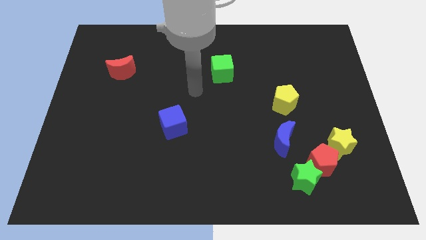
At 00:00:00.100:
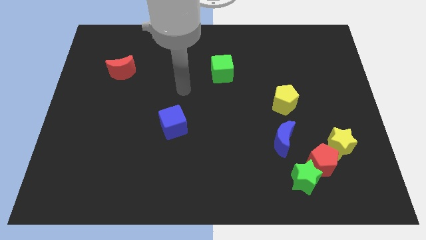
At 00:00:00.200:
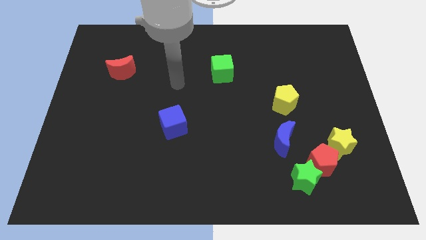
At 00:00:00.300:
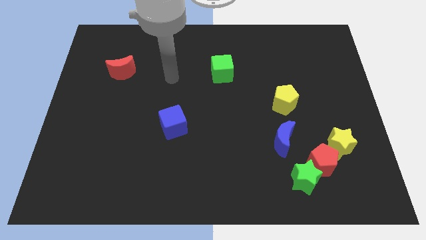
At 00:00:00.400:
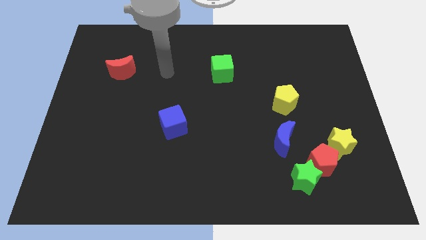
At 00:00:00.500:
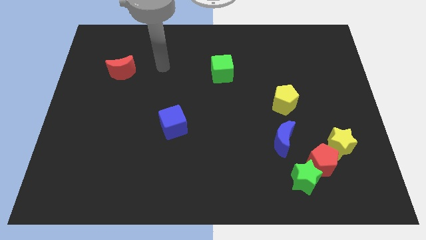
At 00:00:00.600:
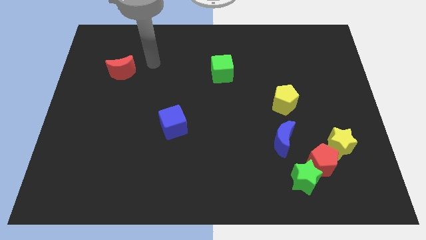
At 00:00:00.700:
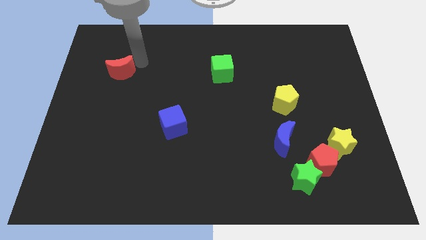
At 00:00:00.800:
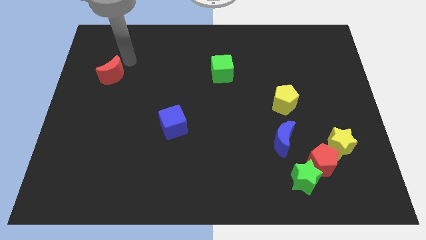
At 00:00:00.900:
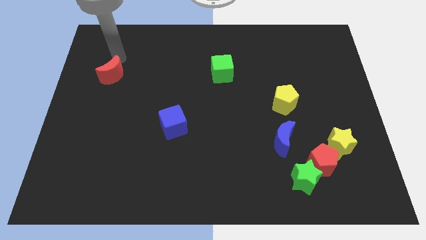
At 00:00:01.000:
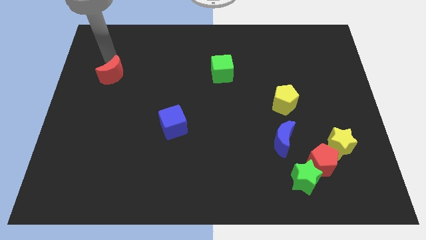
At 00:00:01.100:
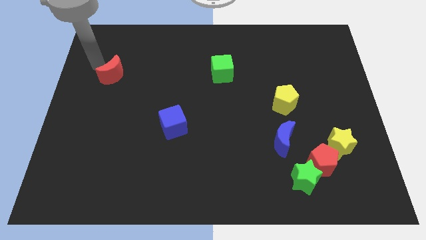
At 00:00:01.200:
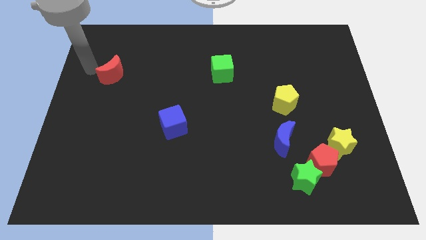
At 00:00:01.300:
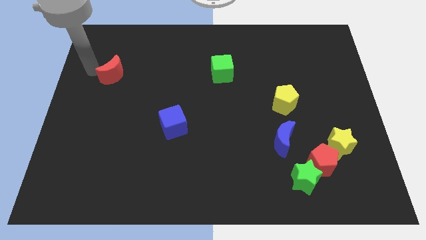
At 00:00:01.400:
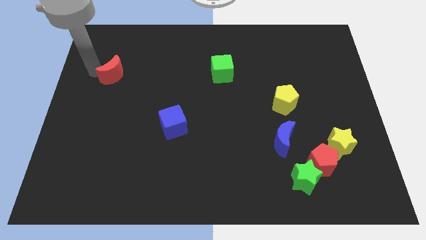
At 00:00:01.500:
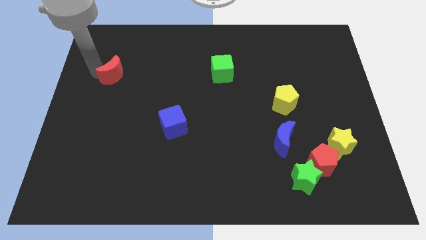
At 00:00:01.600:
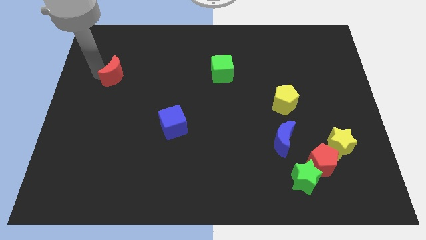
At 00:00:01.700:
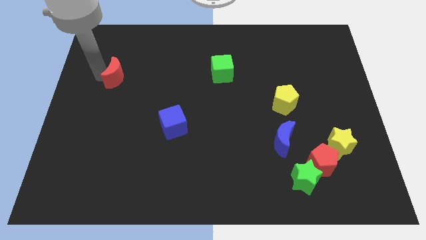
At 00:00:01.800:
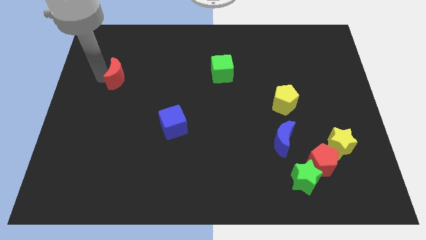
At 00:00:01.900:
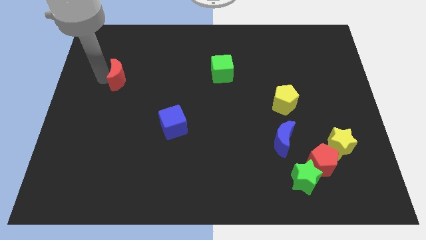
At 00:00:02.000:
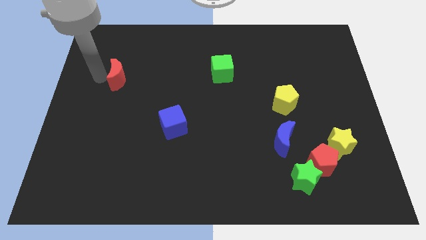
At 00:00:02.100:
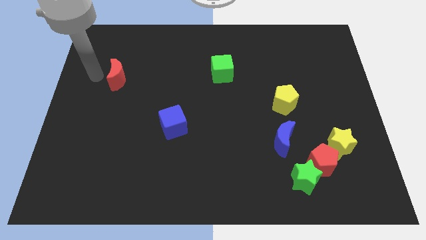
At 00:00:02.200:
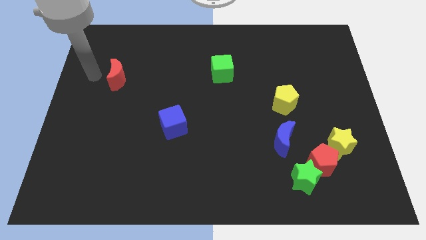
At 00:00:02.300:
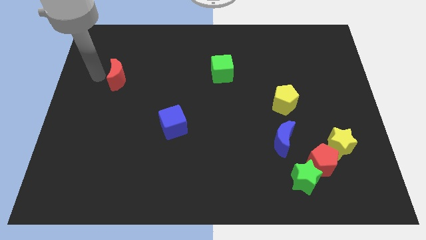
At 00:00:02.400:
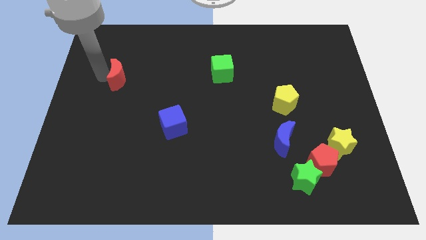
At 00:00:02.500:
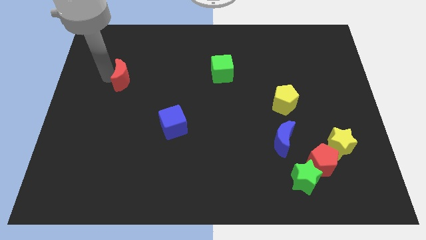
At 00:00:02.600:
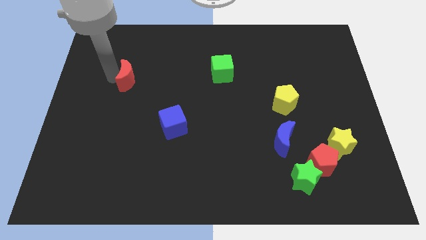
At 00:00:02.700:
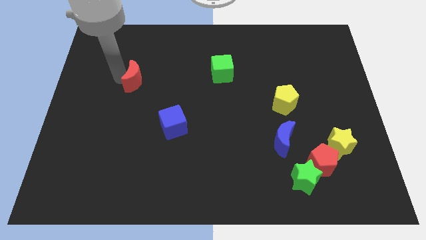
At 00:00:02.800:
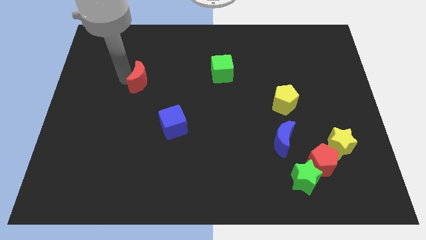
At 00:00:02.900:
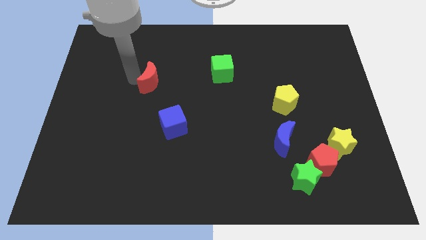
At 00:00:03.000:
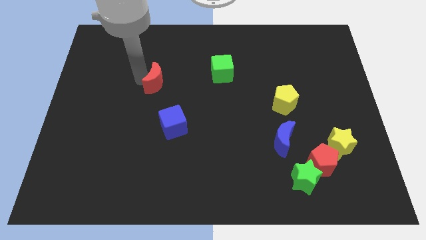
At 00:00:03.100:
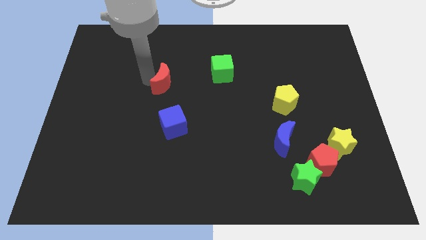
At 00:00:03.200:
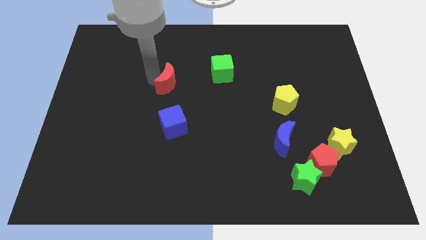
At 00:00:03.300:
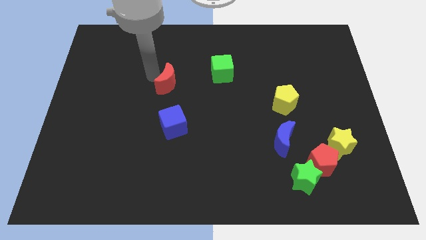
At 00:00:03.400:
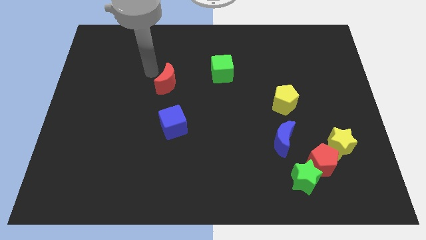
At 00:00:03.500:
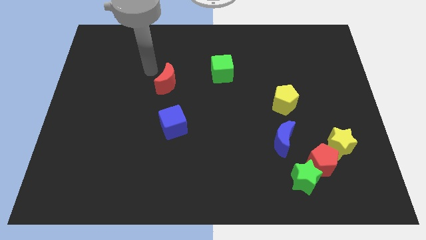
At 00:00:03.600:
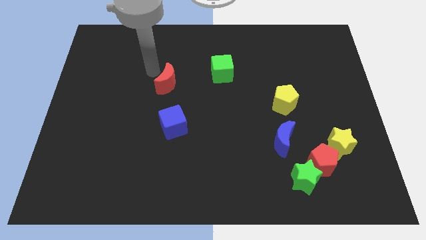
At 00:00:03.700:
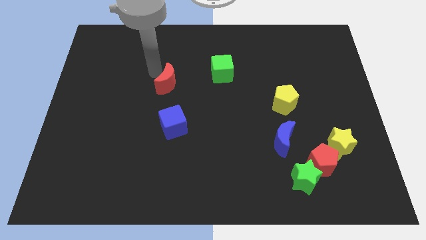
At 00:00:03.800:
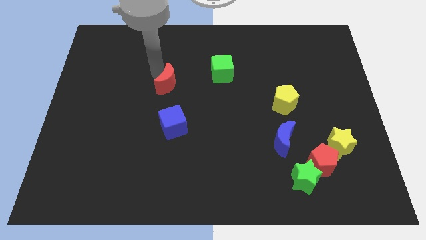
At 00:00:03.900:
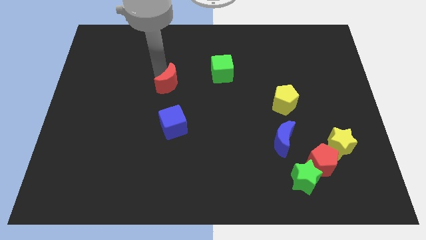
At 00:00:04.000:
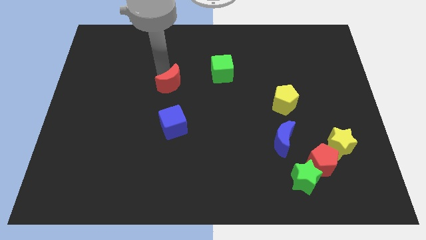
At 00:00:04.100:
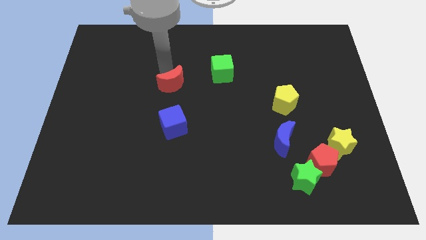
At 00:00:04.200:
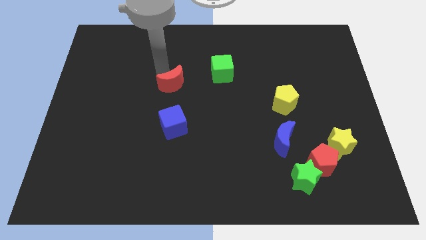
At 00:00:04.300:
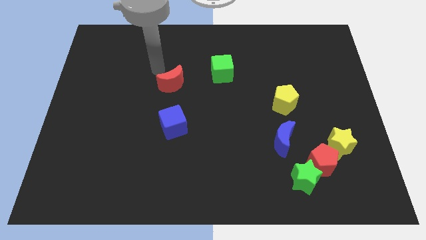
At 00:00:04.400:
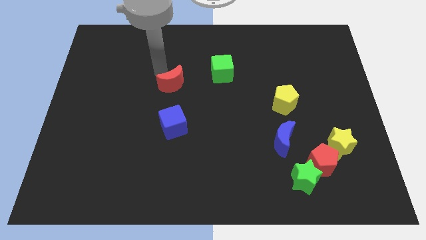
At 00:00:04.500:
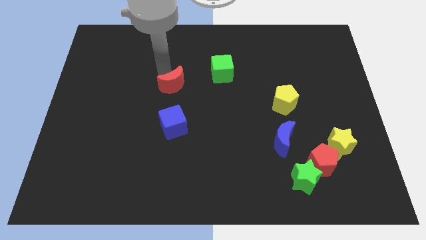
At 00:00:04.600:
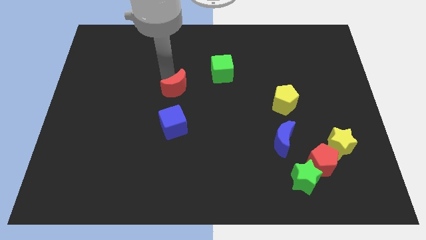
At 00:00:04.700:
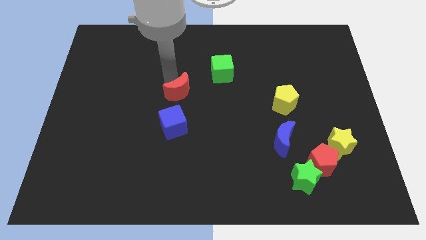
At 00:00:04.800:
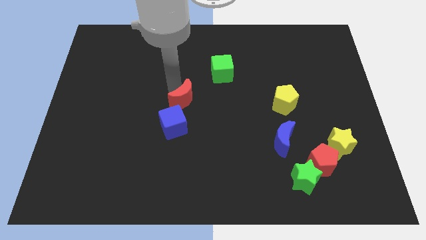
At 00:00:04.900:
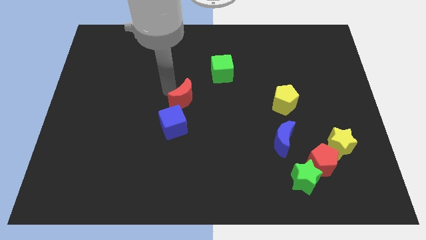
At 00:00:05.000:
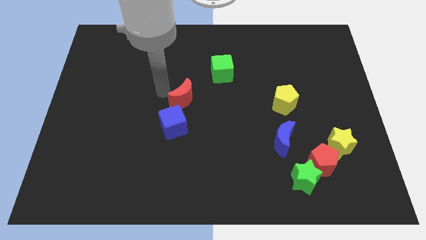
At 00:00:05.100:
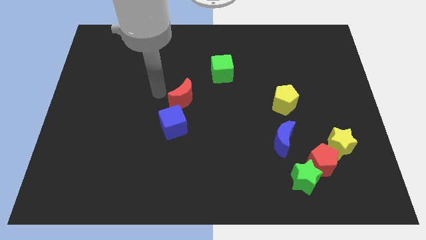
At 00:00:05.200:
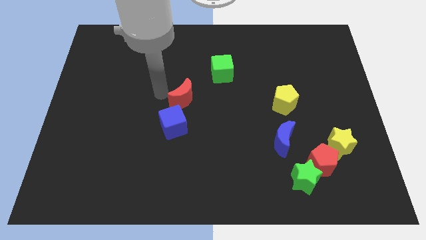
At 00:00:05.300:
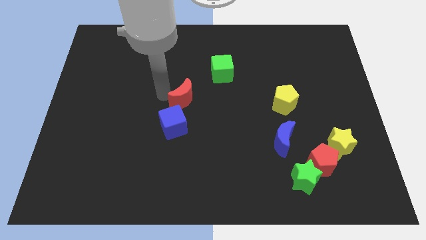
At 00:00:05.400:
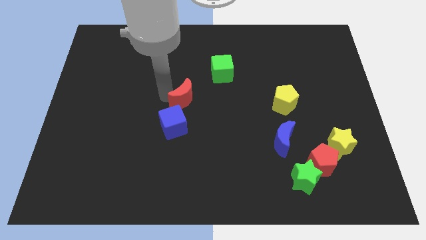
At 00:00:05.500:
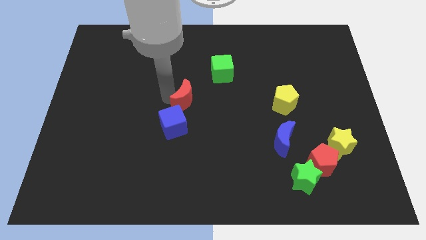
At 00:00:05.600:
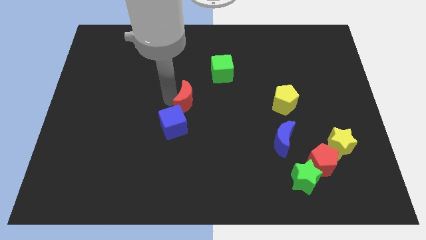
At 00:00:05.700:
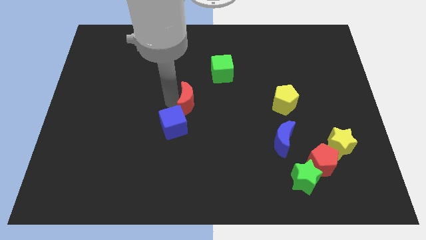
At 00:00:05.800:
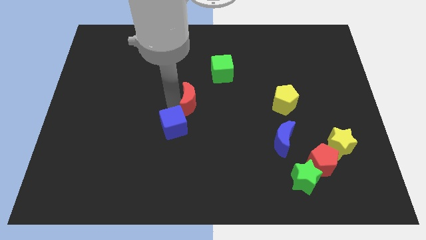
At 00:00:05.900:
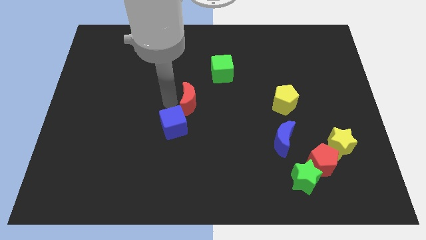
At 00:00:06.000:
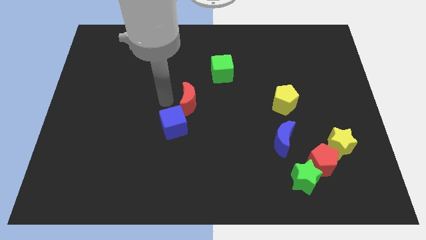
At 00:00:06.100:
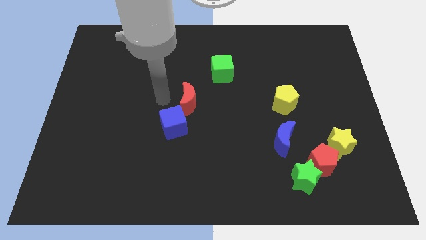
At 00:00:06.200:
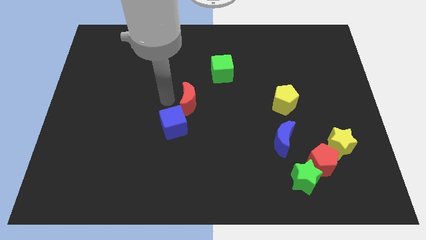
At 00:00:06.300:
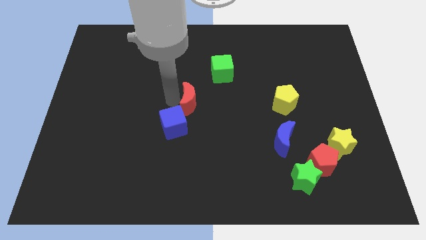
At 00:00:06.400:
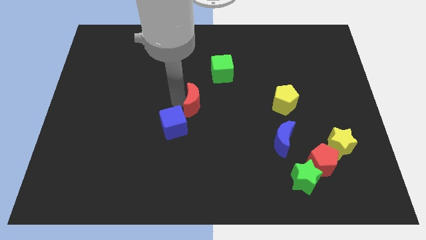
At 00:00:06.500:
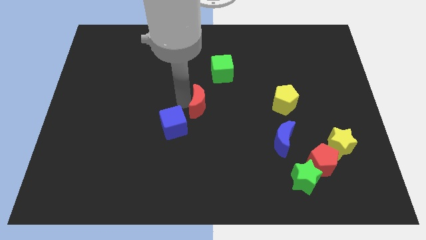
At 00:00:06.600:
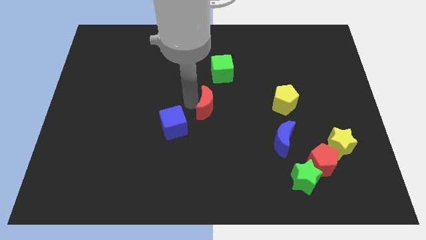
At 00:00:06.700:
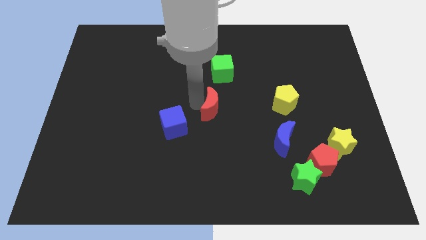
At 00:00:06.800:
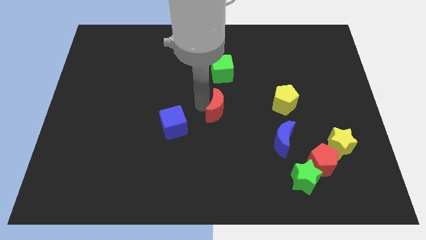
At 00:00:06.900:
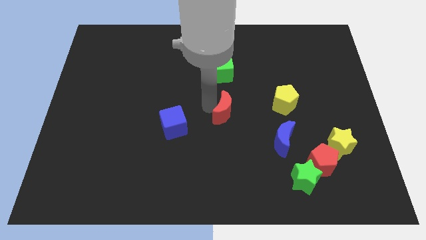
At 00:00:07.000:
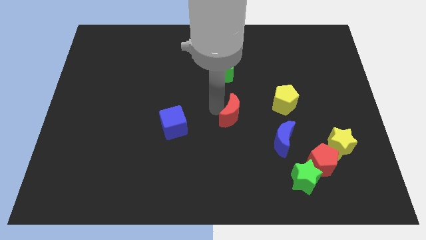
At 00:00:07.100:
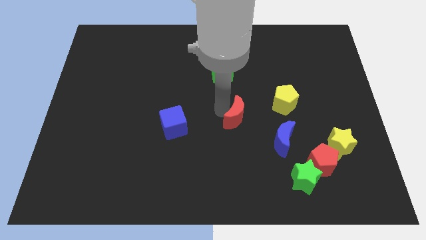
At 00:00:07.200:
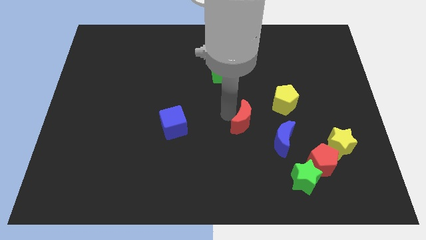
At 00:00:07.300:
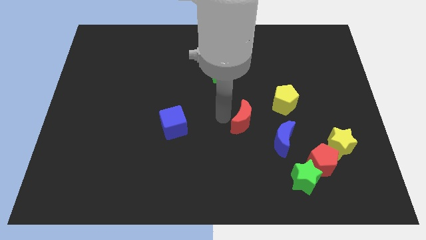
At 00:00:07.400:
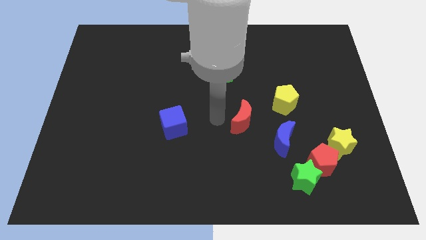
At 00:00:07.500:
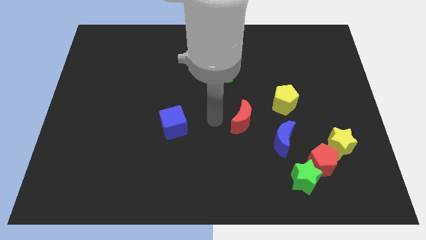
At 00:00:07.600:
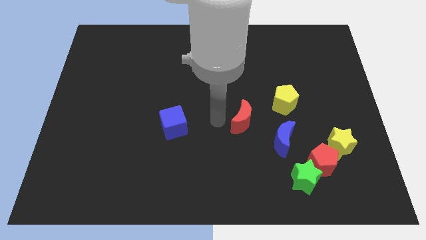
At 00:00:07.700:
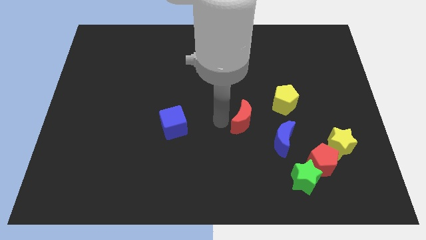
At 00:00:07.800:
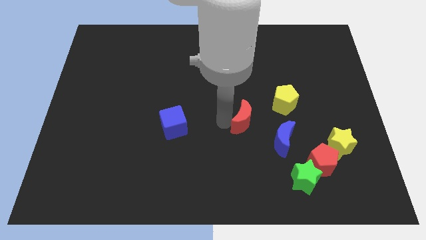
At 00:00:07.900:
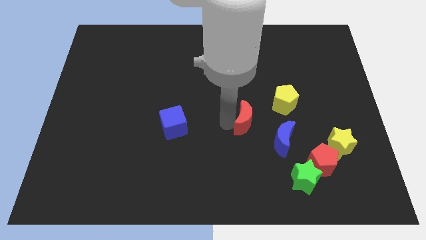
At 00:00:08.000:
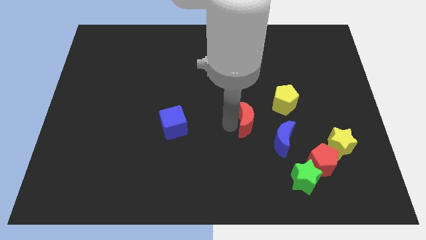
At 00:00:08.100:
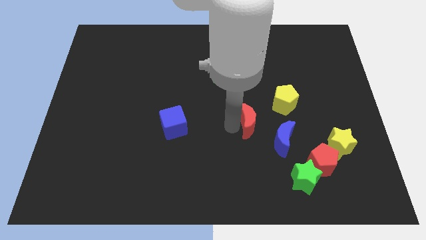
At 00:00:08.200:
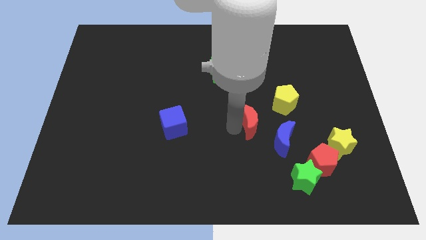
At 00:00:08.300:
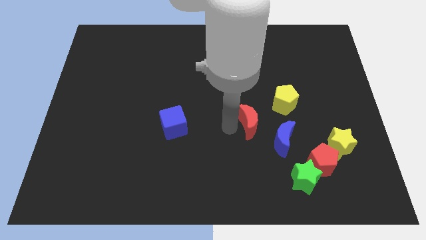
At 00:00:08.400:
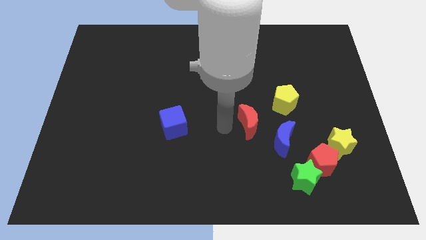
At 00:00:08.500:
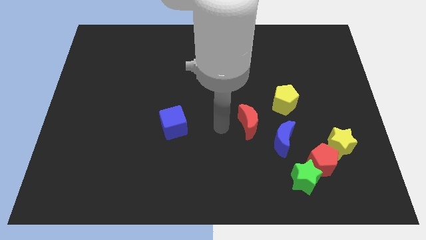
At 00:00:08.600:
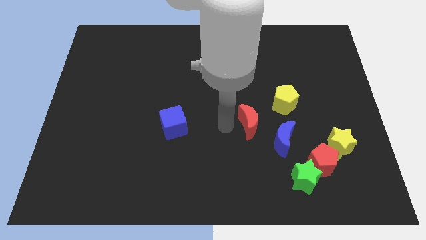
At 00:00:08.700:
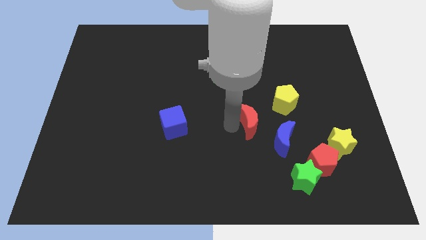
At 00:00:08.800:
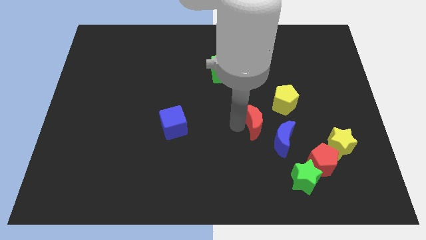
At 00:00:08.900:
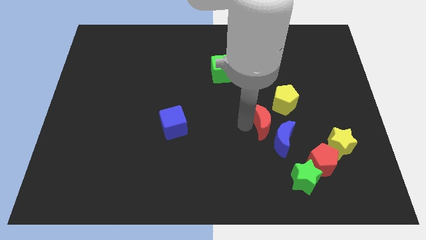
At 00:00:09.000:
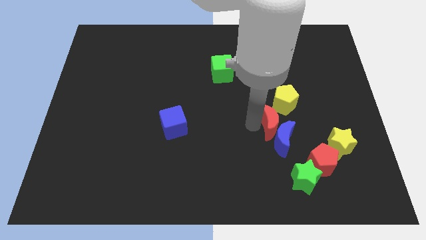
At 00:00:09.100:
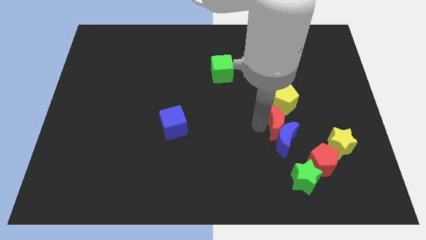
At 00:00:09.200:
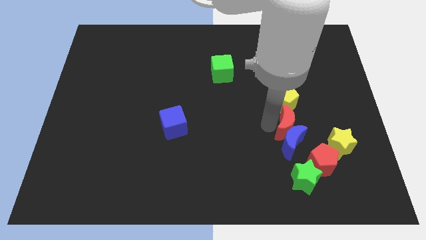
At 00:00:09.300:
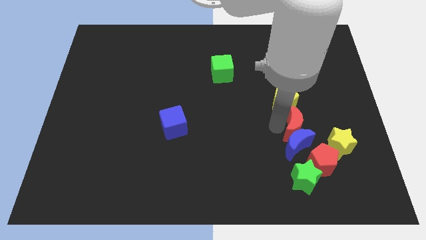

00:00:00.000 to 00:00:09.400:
slide the red moon to the top side of the red pentagon
